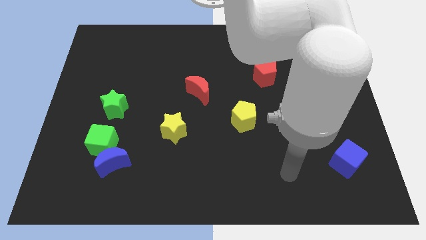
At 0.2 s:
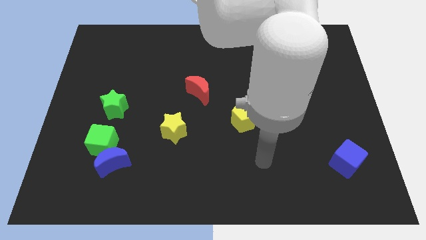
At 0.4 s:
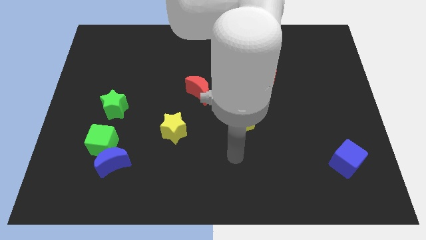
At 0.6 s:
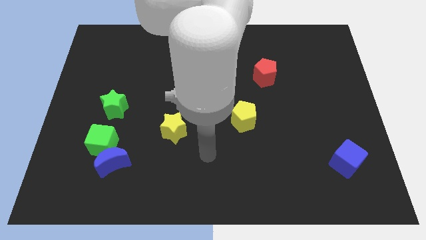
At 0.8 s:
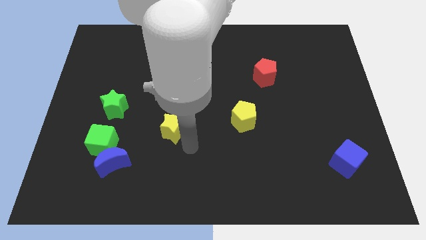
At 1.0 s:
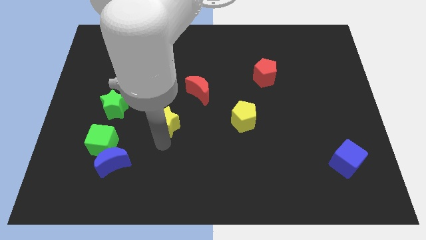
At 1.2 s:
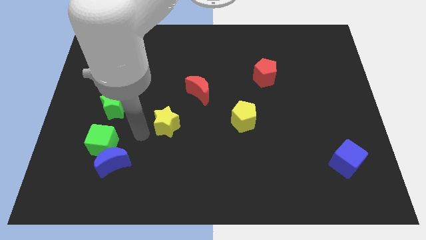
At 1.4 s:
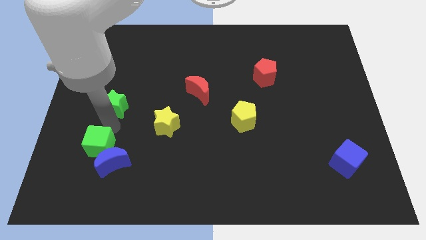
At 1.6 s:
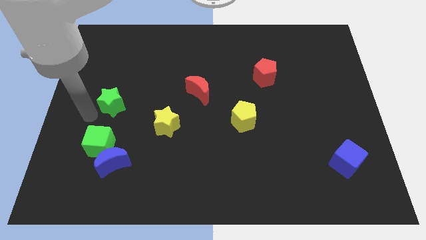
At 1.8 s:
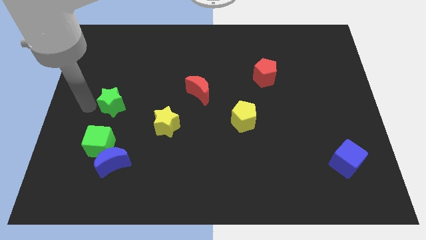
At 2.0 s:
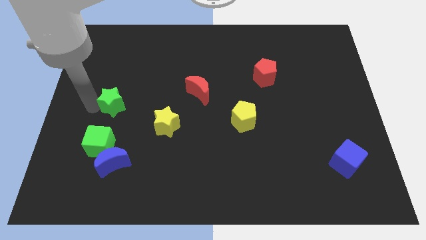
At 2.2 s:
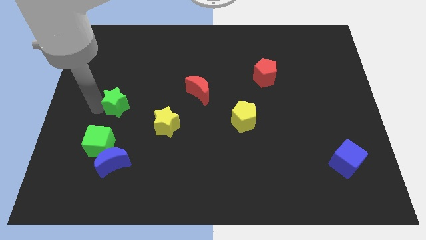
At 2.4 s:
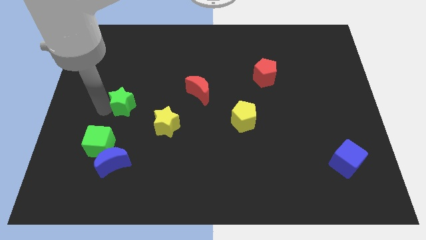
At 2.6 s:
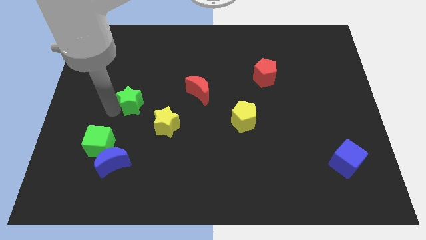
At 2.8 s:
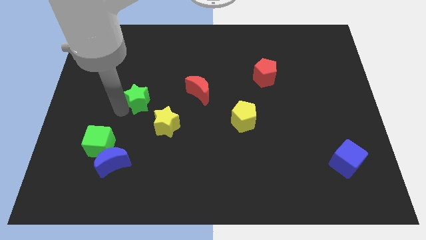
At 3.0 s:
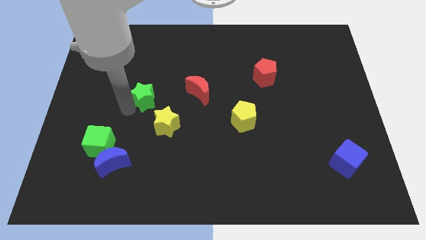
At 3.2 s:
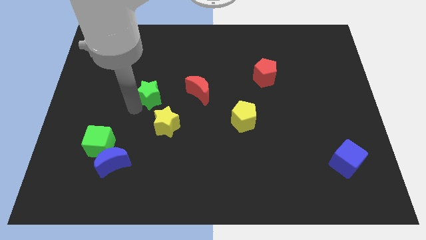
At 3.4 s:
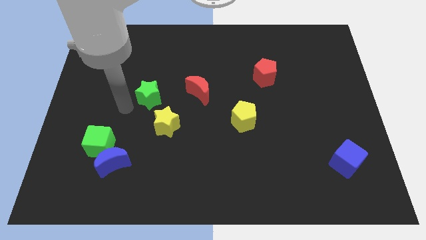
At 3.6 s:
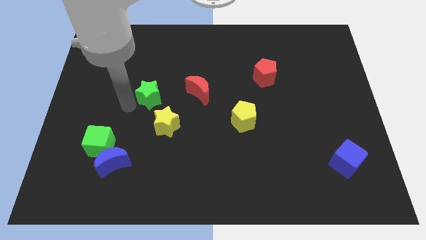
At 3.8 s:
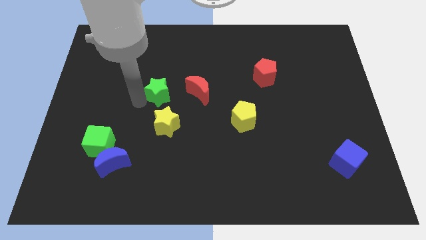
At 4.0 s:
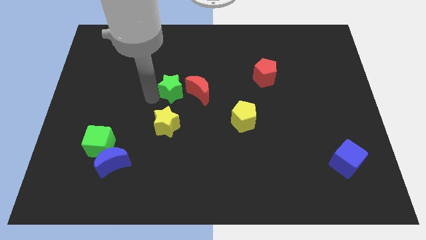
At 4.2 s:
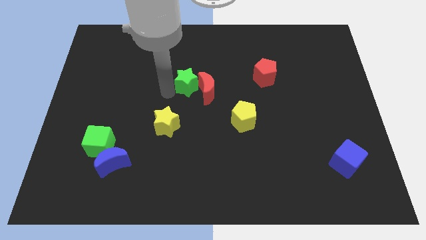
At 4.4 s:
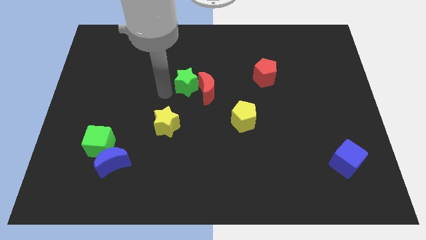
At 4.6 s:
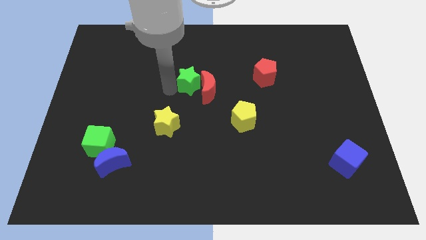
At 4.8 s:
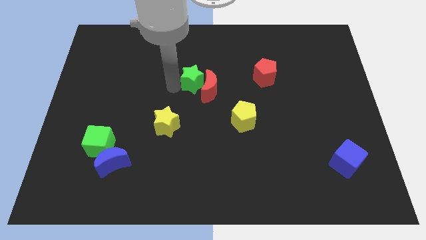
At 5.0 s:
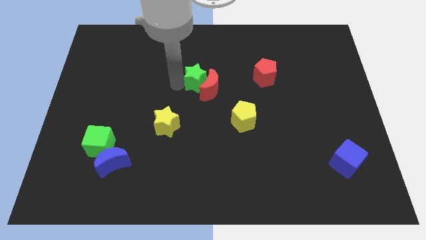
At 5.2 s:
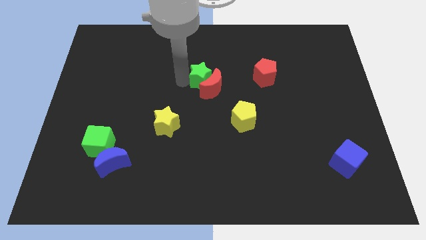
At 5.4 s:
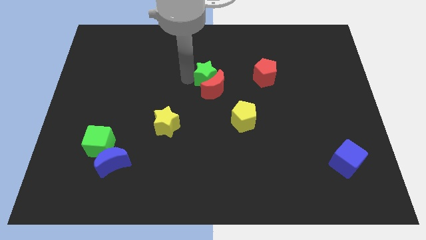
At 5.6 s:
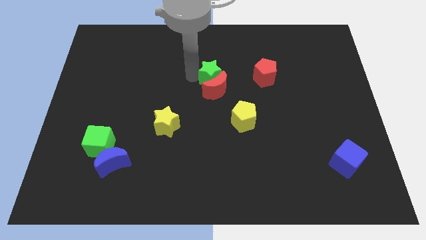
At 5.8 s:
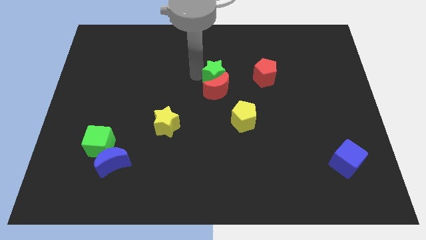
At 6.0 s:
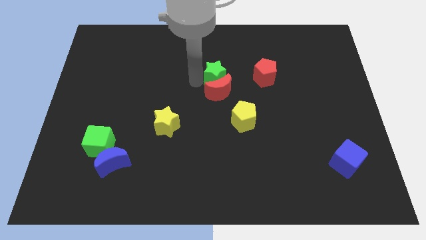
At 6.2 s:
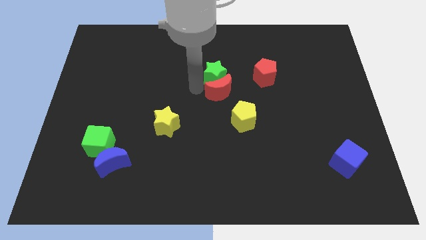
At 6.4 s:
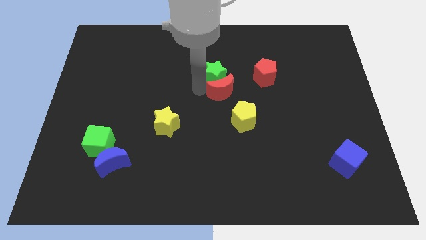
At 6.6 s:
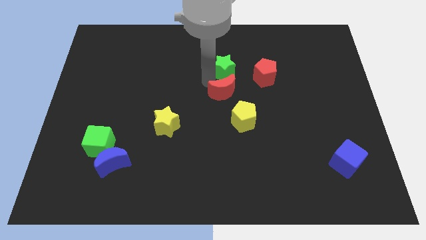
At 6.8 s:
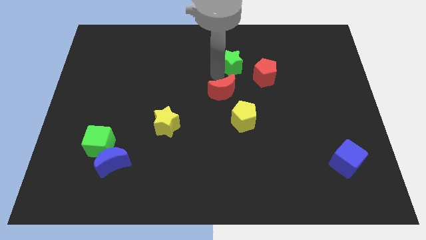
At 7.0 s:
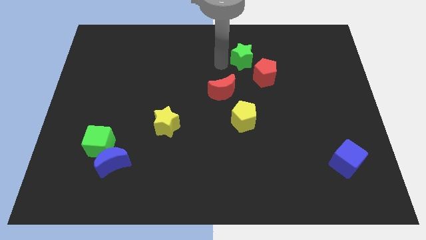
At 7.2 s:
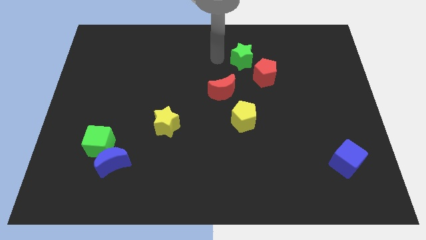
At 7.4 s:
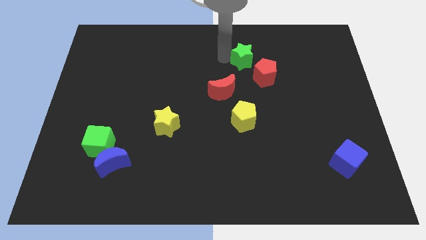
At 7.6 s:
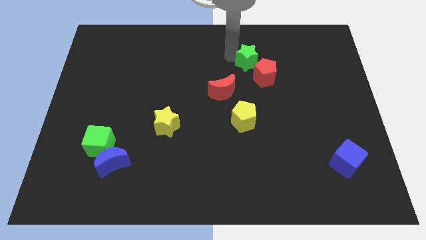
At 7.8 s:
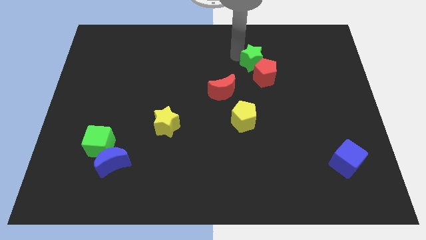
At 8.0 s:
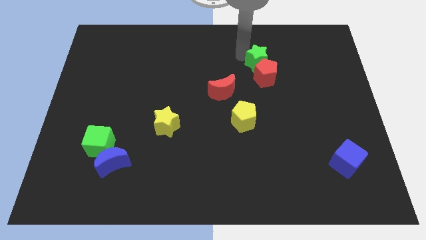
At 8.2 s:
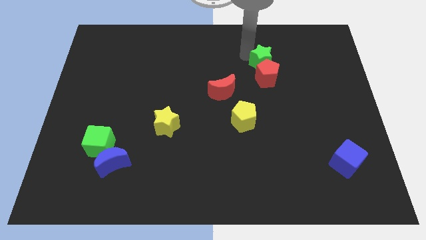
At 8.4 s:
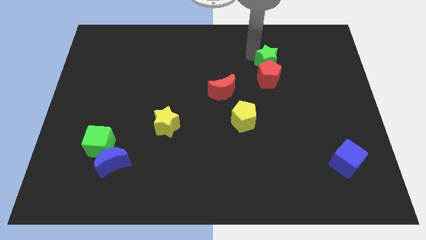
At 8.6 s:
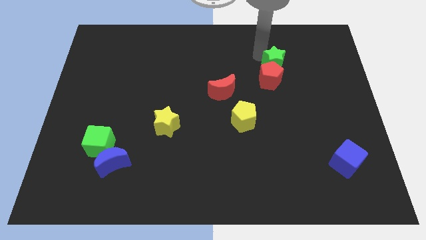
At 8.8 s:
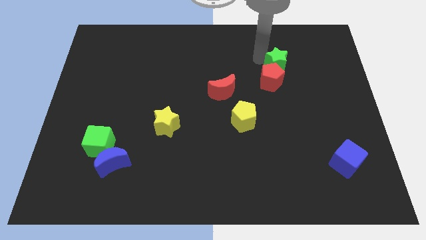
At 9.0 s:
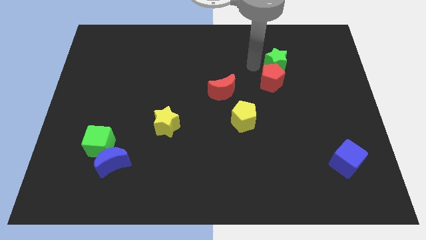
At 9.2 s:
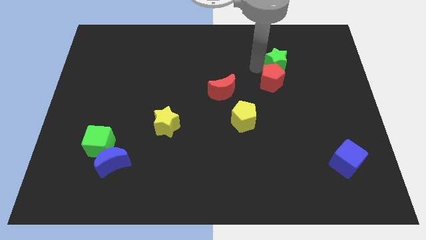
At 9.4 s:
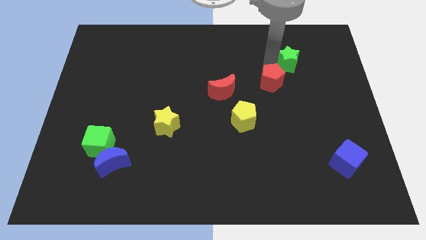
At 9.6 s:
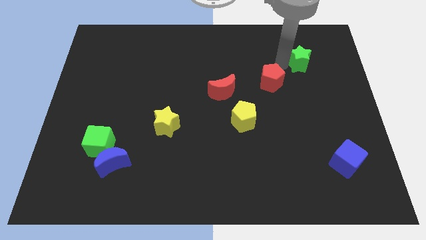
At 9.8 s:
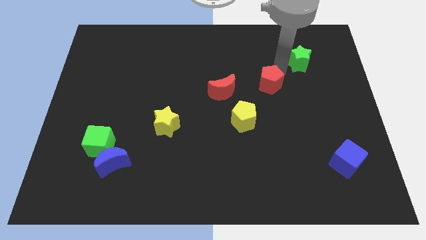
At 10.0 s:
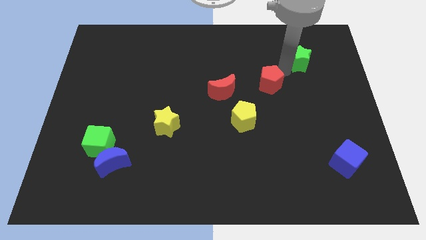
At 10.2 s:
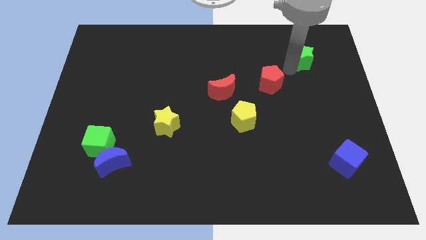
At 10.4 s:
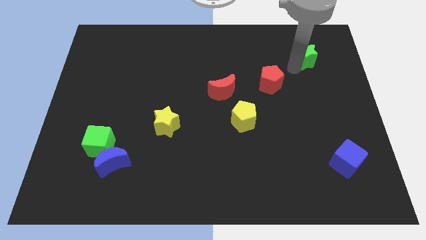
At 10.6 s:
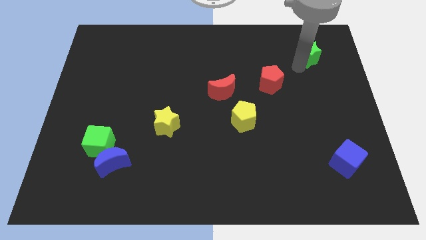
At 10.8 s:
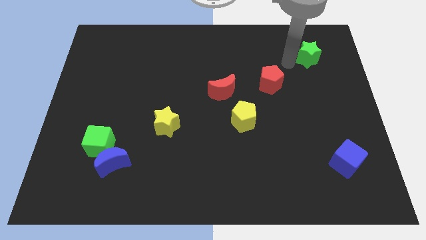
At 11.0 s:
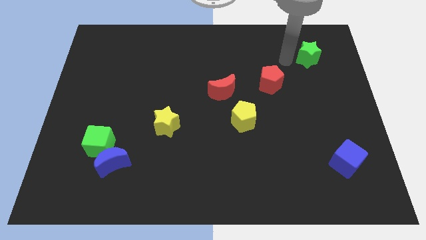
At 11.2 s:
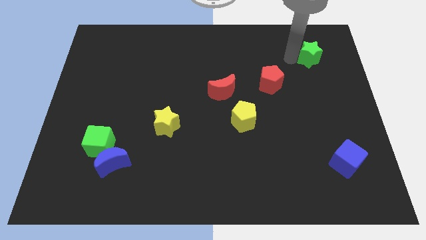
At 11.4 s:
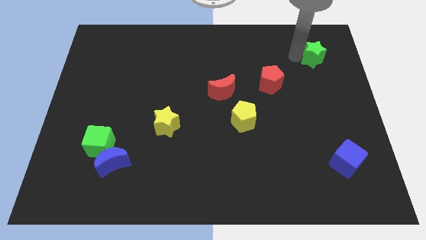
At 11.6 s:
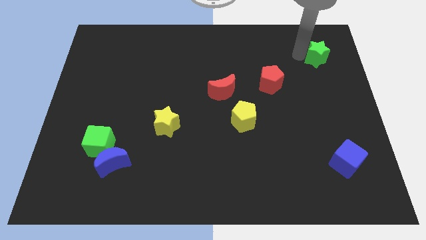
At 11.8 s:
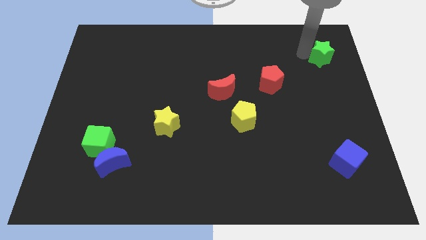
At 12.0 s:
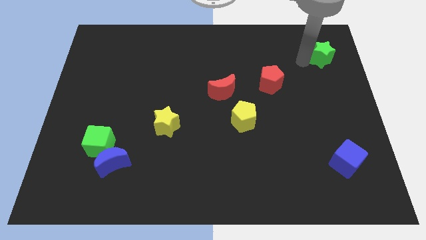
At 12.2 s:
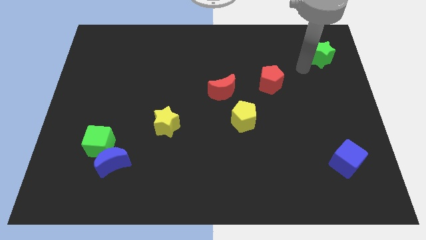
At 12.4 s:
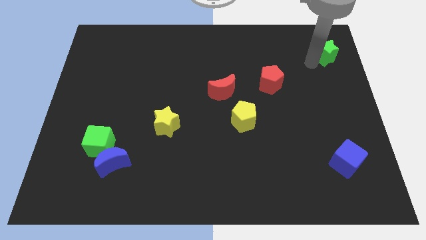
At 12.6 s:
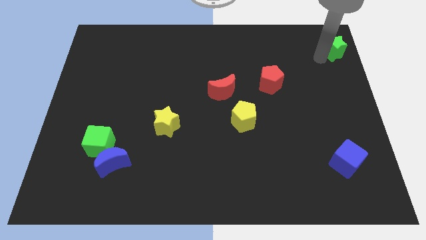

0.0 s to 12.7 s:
move the green star to the top right corner

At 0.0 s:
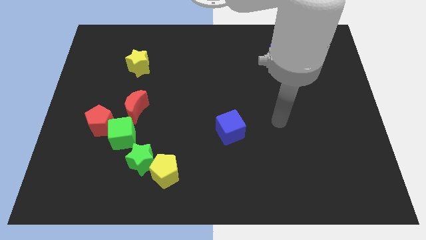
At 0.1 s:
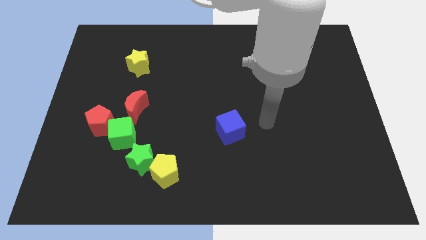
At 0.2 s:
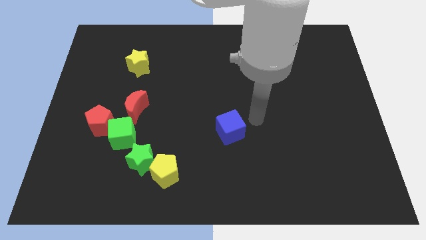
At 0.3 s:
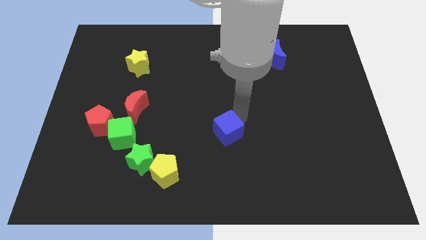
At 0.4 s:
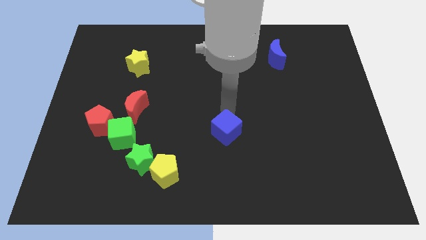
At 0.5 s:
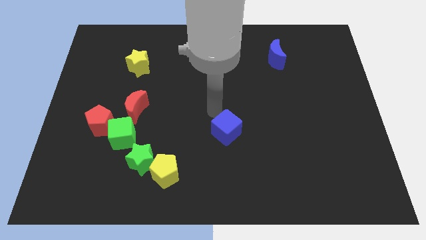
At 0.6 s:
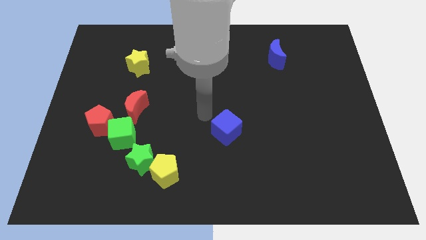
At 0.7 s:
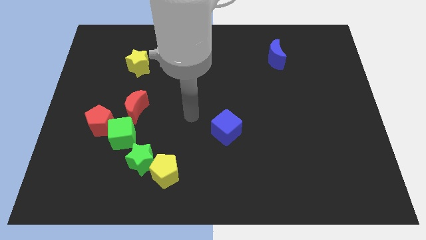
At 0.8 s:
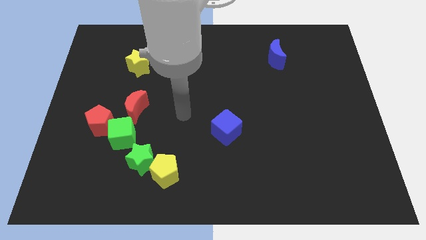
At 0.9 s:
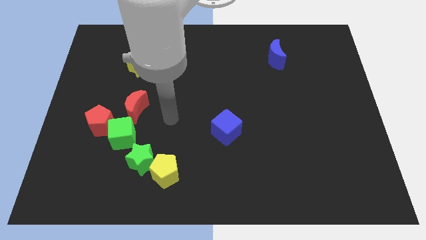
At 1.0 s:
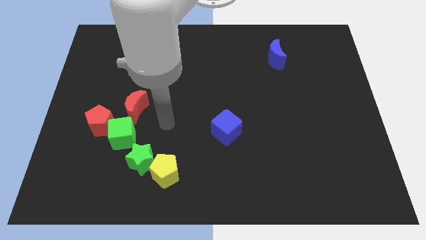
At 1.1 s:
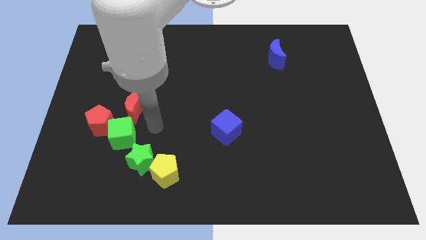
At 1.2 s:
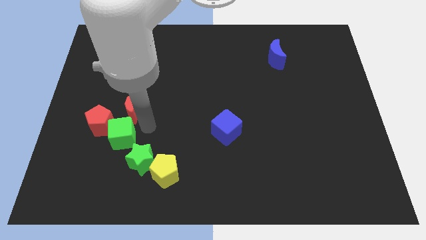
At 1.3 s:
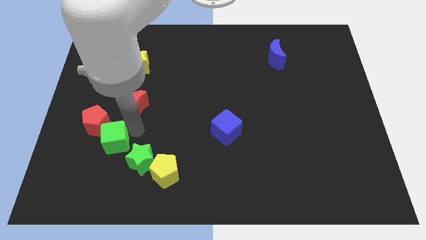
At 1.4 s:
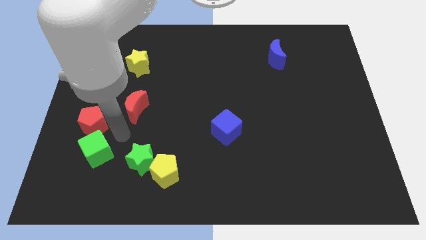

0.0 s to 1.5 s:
slide the red pentagon to the left side of the board
